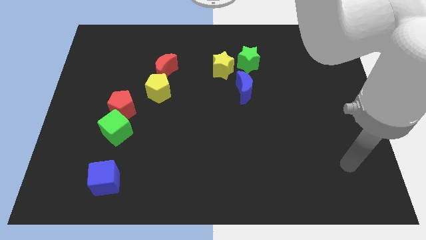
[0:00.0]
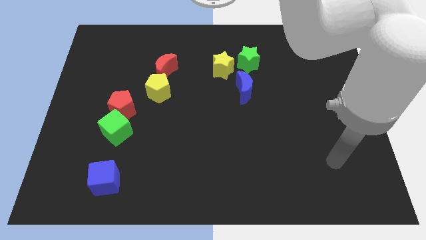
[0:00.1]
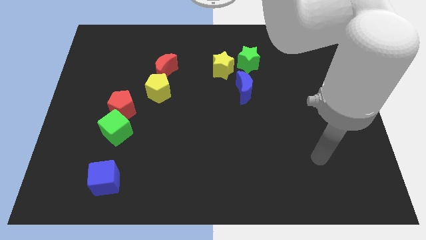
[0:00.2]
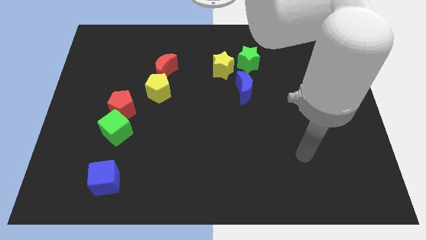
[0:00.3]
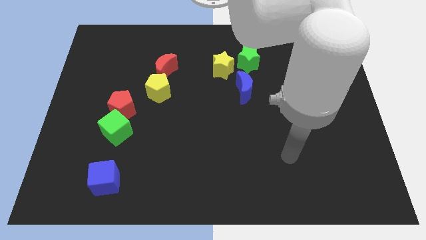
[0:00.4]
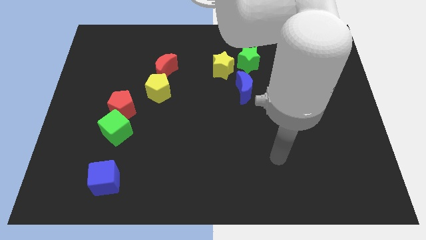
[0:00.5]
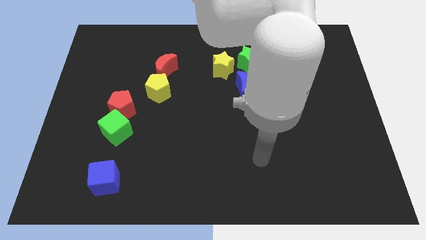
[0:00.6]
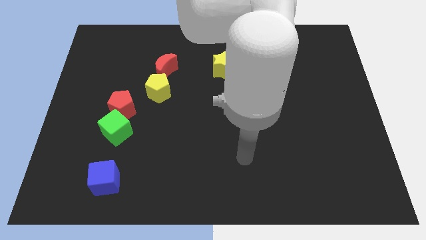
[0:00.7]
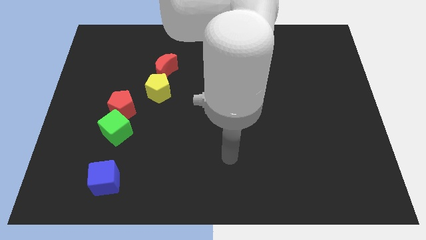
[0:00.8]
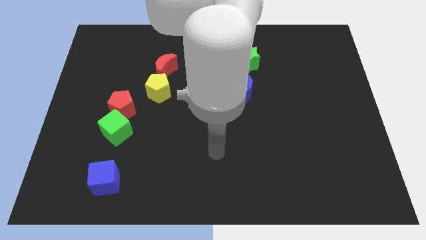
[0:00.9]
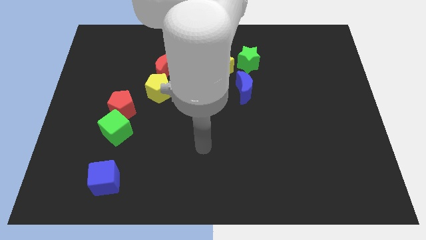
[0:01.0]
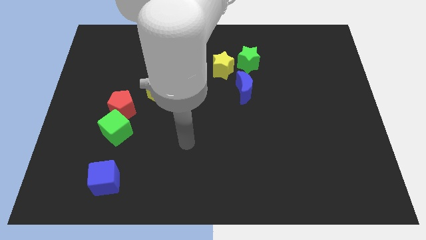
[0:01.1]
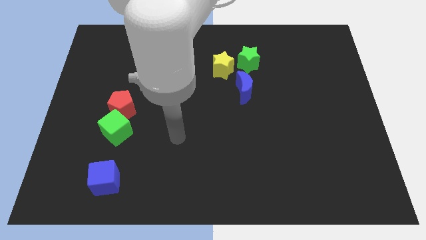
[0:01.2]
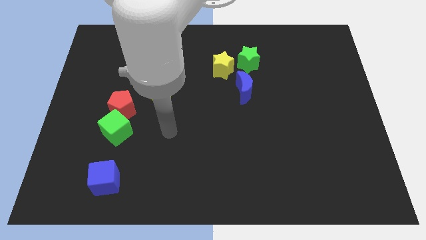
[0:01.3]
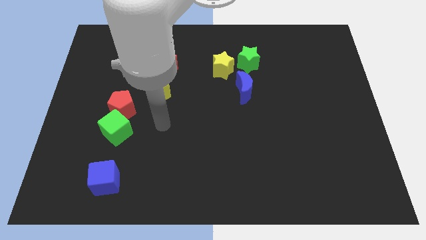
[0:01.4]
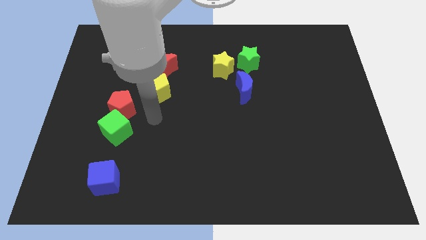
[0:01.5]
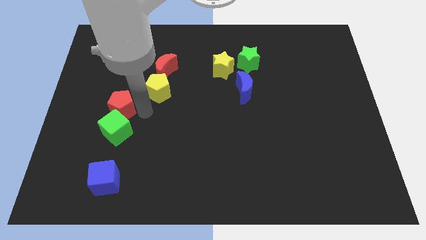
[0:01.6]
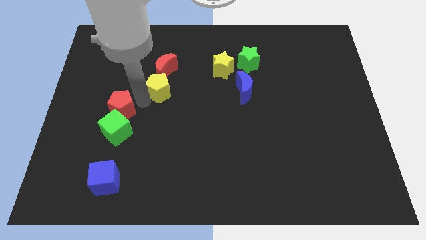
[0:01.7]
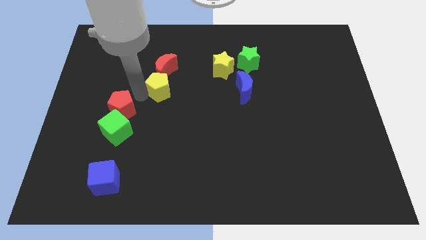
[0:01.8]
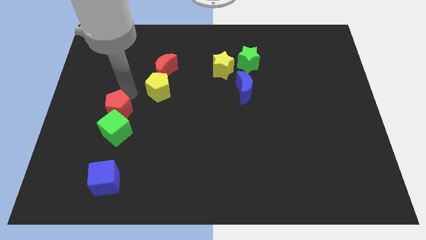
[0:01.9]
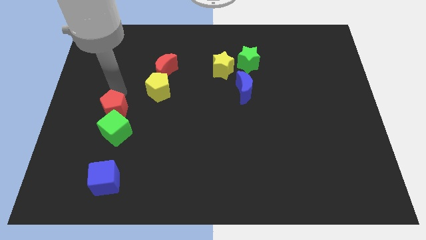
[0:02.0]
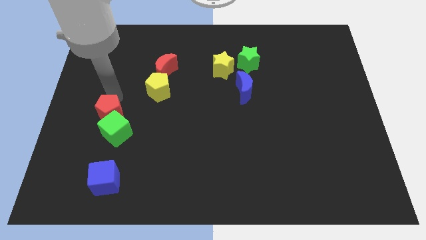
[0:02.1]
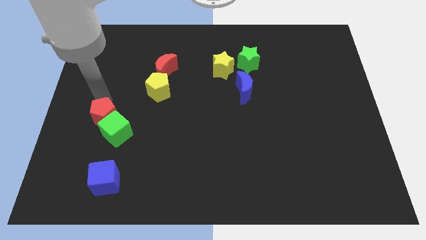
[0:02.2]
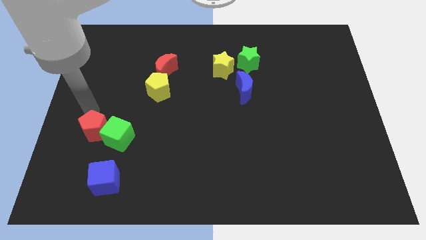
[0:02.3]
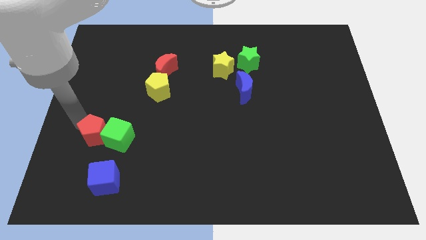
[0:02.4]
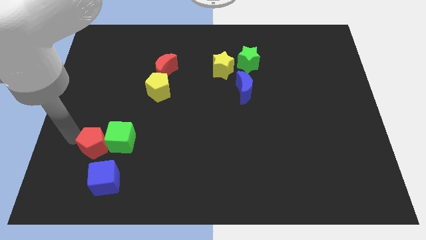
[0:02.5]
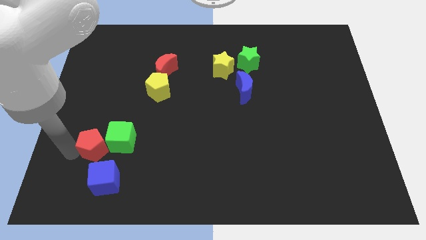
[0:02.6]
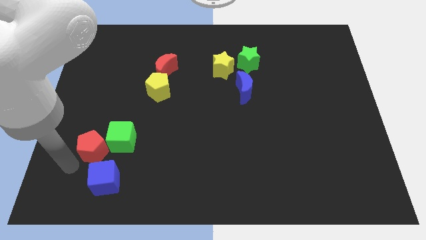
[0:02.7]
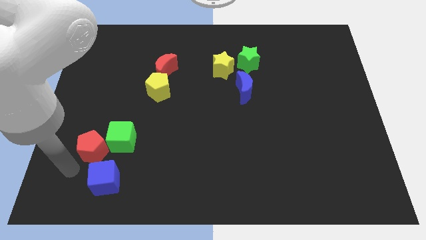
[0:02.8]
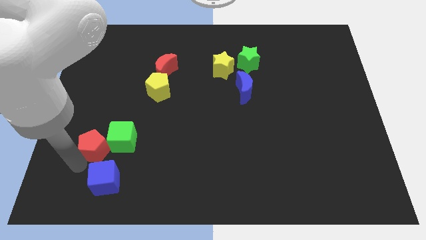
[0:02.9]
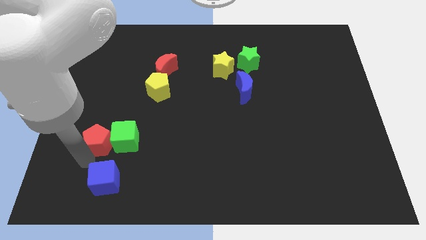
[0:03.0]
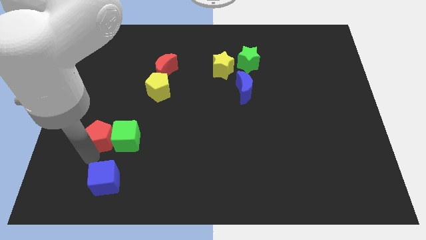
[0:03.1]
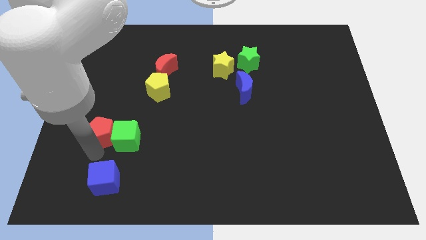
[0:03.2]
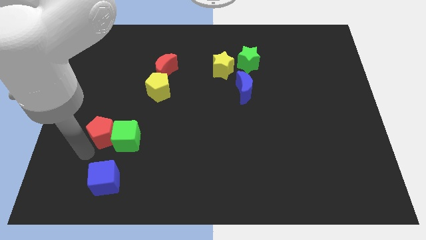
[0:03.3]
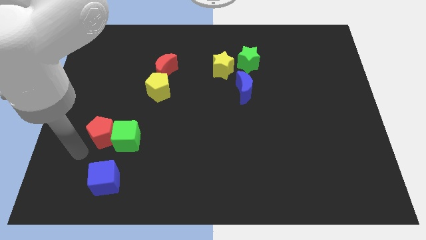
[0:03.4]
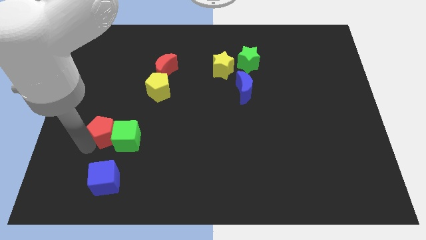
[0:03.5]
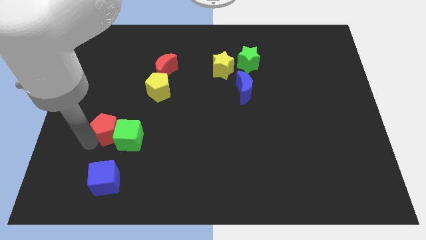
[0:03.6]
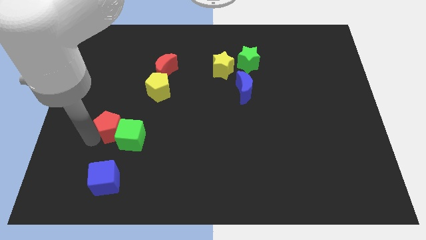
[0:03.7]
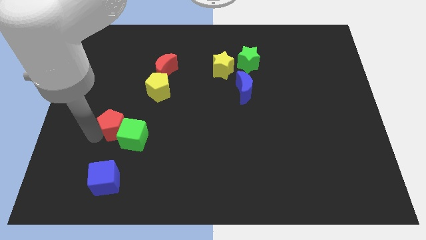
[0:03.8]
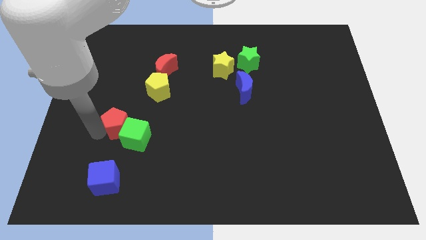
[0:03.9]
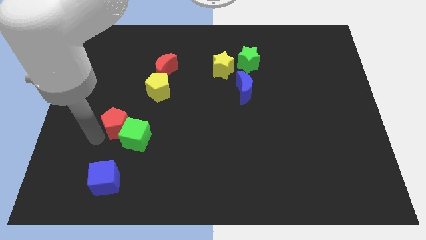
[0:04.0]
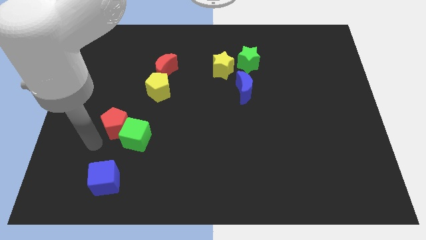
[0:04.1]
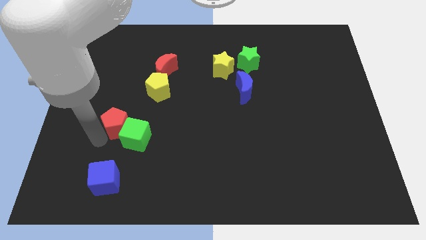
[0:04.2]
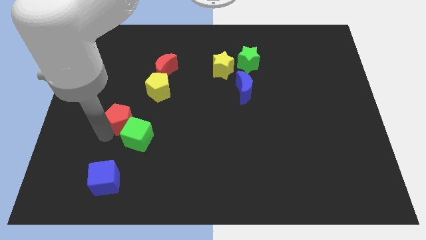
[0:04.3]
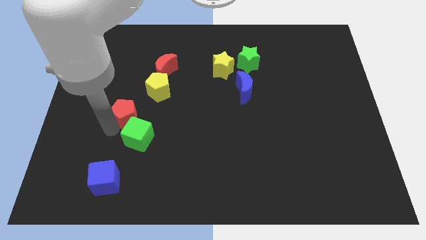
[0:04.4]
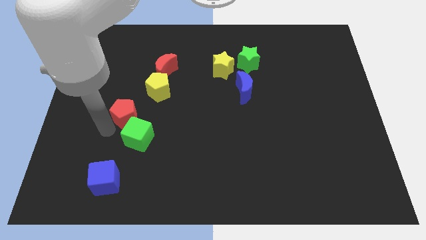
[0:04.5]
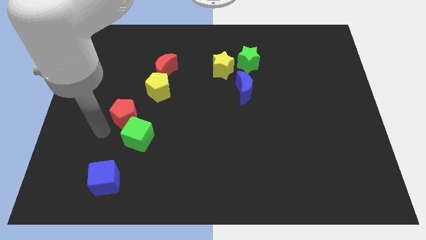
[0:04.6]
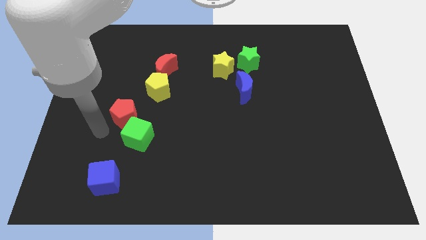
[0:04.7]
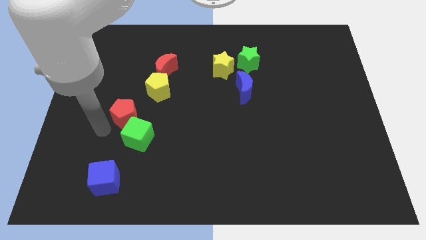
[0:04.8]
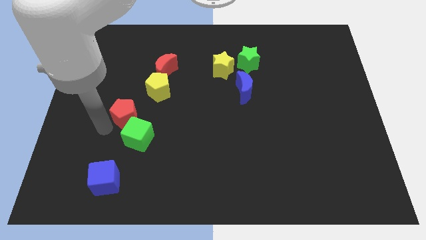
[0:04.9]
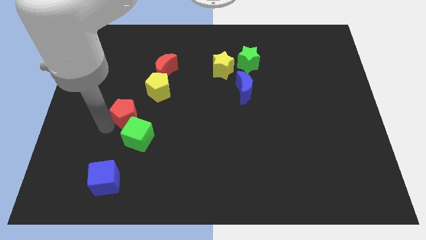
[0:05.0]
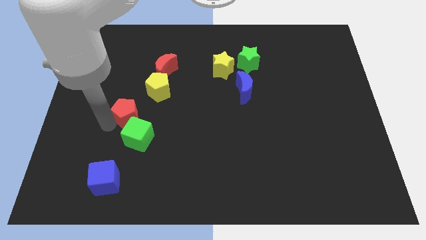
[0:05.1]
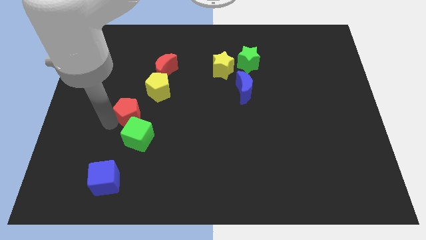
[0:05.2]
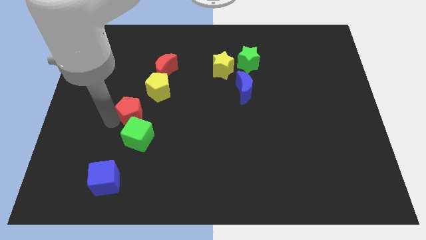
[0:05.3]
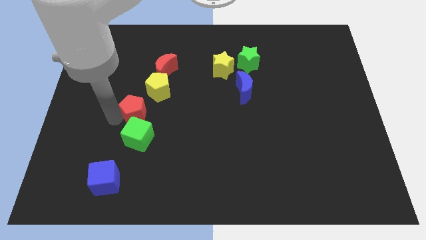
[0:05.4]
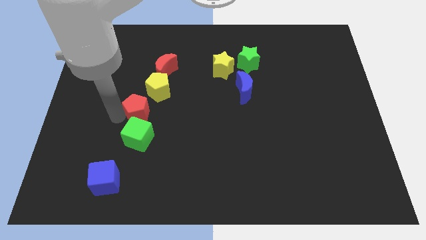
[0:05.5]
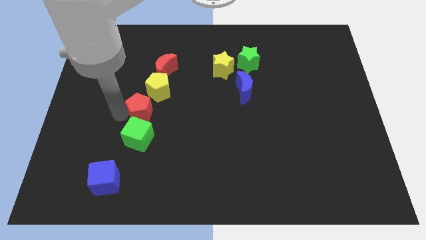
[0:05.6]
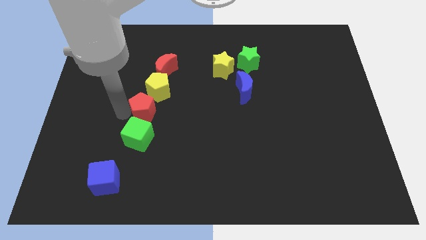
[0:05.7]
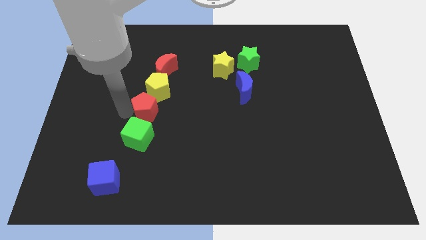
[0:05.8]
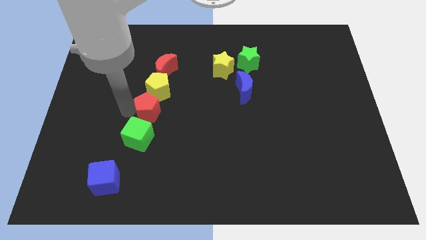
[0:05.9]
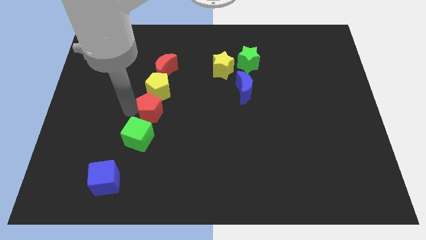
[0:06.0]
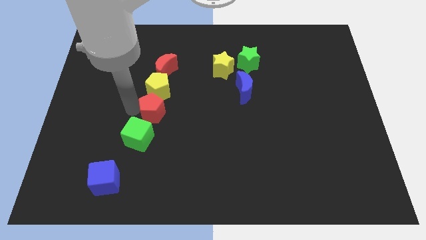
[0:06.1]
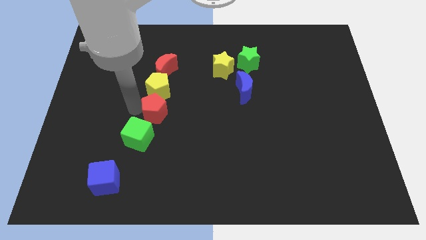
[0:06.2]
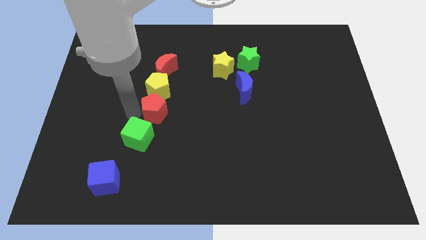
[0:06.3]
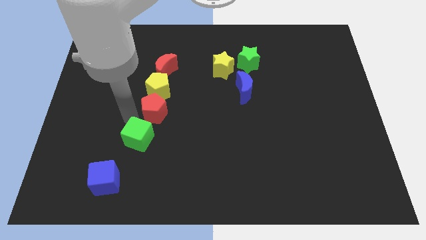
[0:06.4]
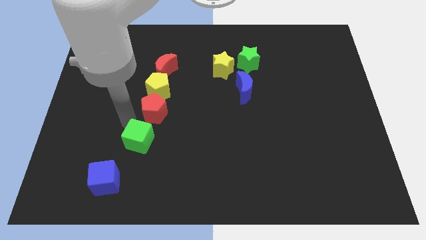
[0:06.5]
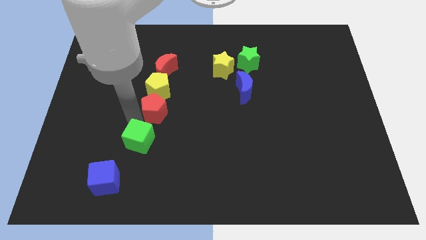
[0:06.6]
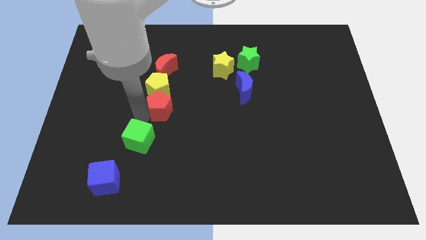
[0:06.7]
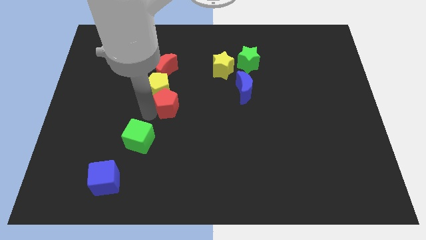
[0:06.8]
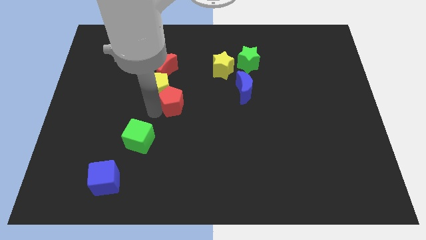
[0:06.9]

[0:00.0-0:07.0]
slightly move the red pentagon upwards and then right

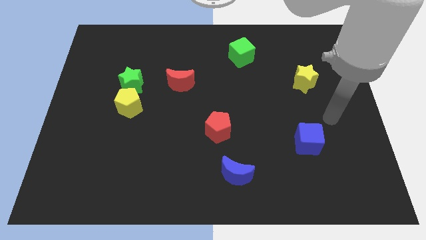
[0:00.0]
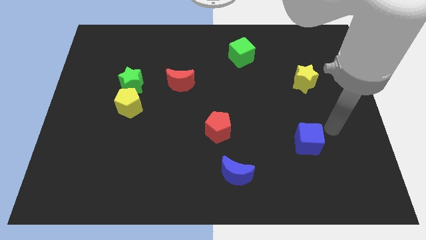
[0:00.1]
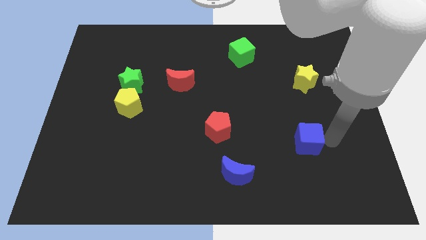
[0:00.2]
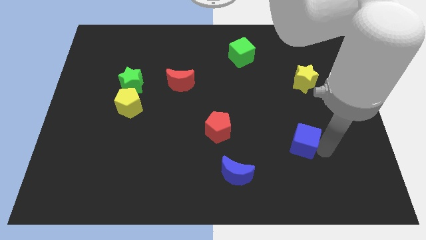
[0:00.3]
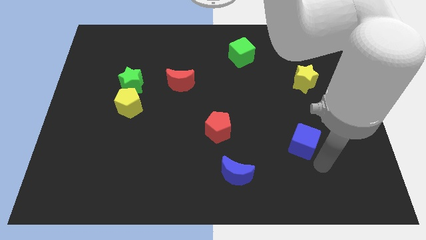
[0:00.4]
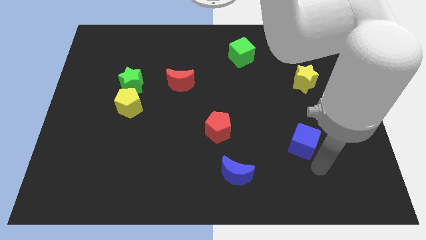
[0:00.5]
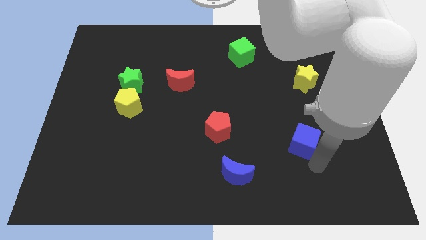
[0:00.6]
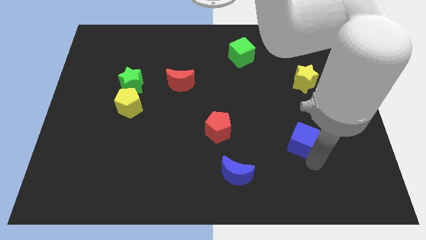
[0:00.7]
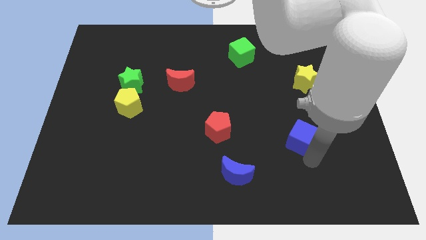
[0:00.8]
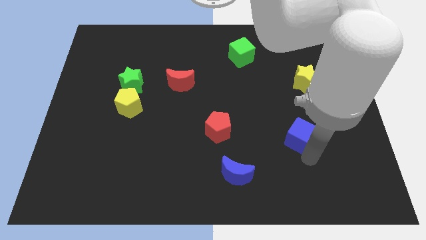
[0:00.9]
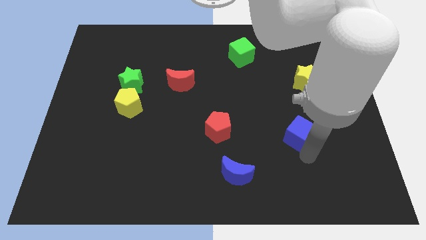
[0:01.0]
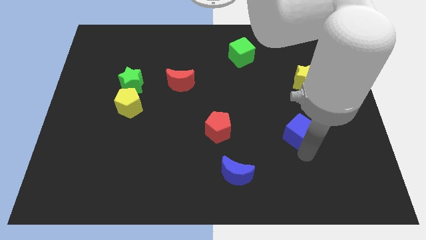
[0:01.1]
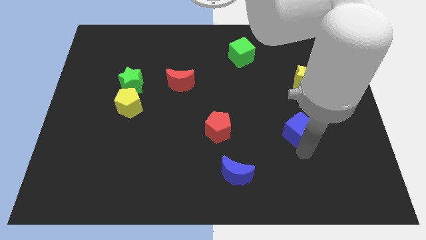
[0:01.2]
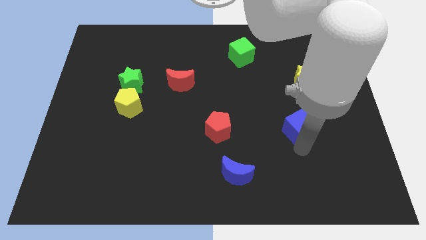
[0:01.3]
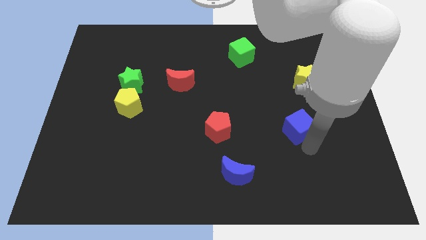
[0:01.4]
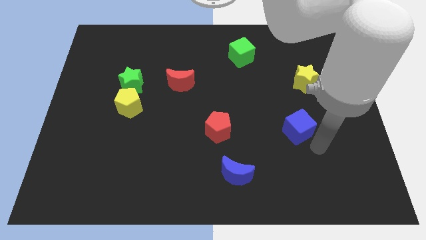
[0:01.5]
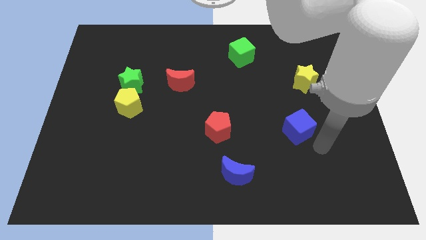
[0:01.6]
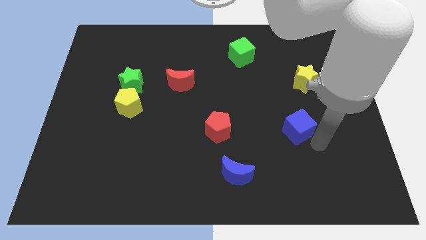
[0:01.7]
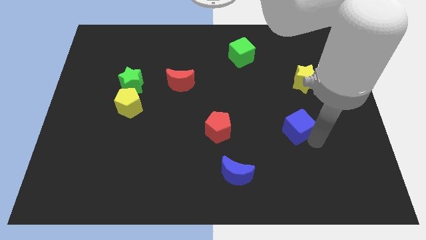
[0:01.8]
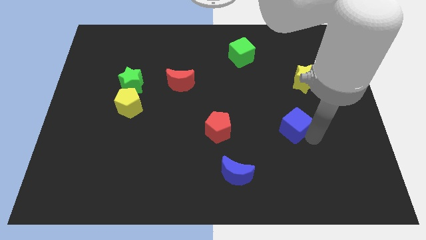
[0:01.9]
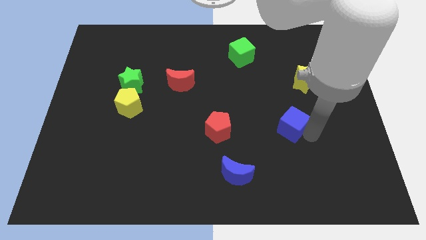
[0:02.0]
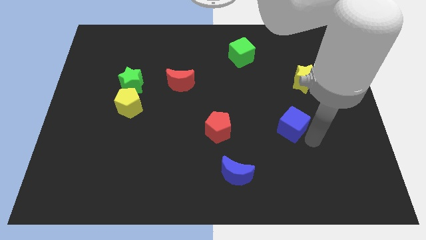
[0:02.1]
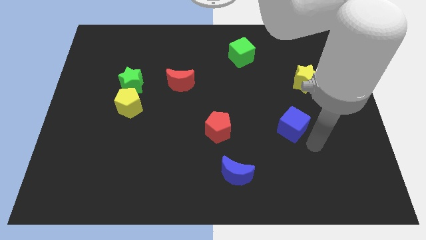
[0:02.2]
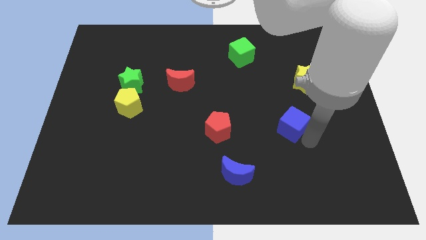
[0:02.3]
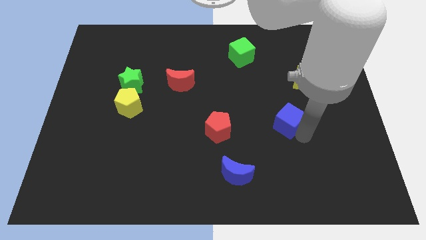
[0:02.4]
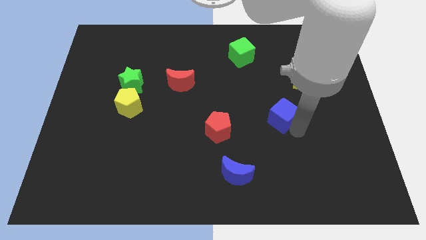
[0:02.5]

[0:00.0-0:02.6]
move the blue cube a bit up and then left
